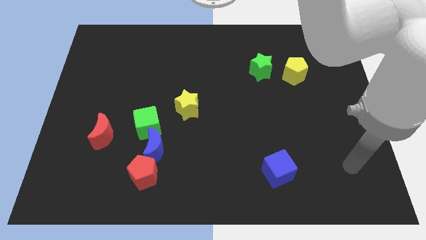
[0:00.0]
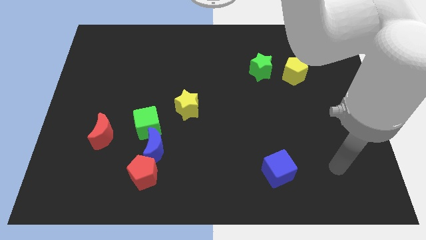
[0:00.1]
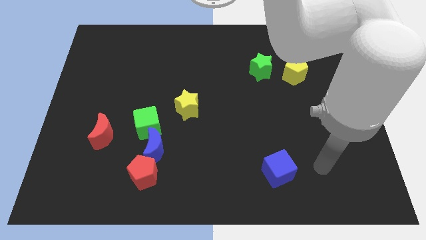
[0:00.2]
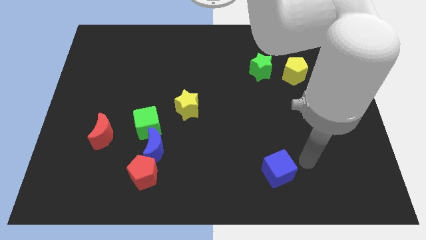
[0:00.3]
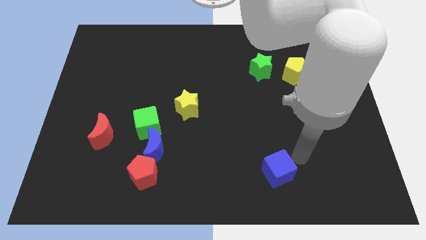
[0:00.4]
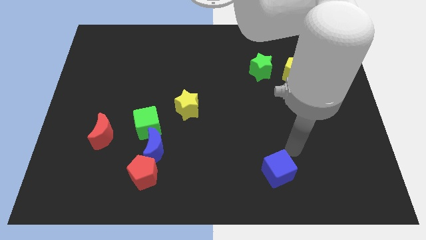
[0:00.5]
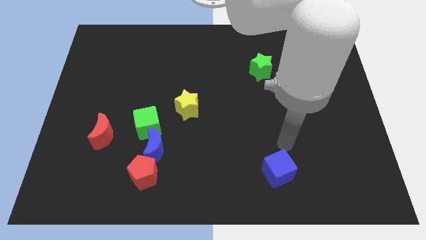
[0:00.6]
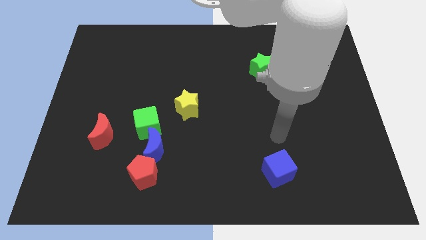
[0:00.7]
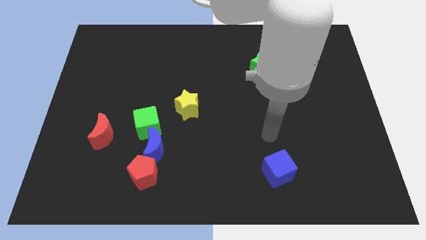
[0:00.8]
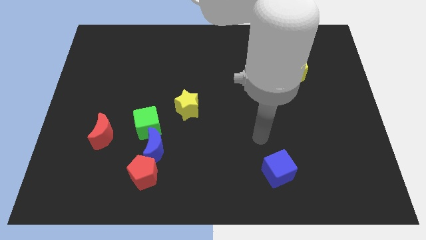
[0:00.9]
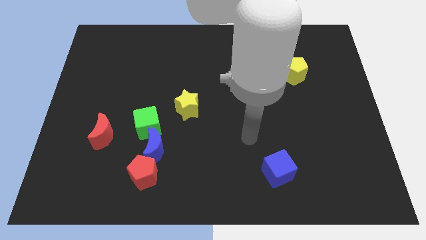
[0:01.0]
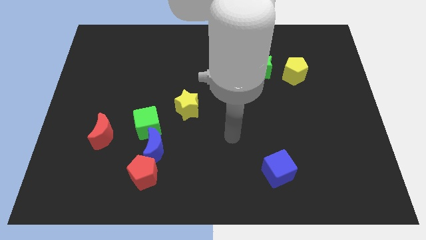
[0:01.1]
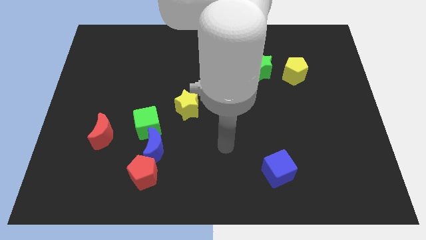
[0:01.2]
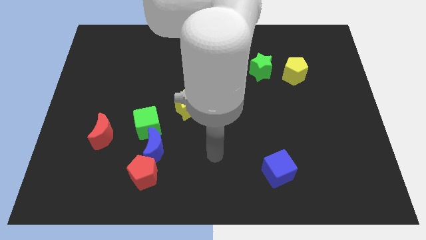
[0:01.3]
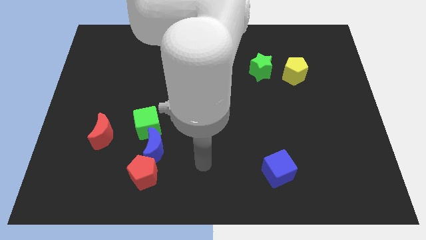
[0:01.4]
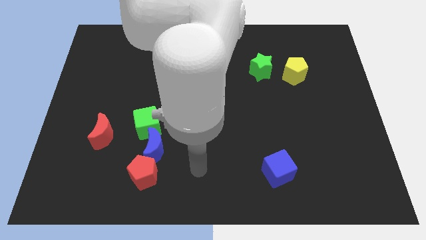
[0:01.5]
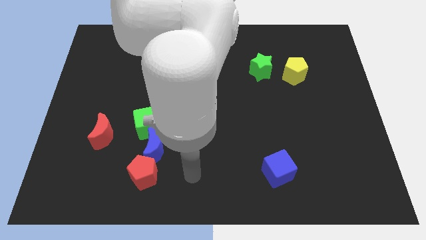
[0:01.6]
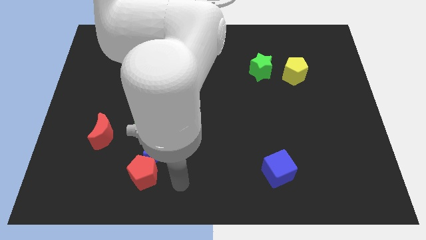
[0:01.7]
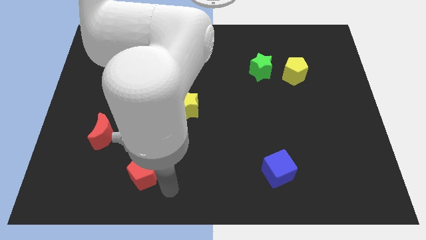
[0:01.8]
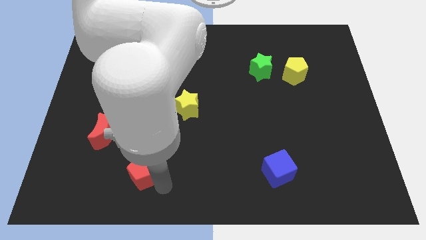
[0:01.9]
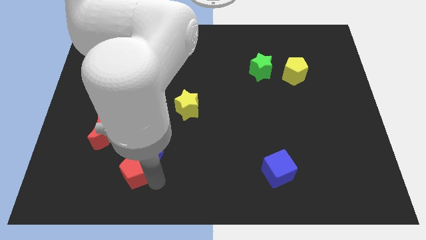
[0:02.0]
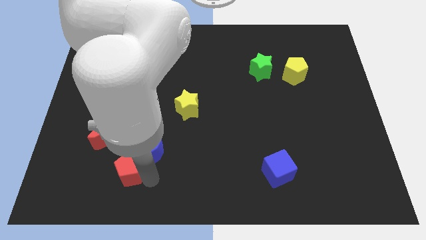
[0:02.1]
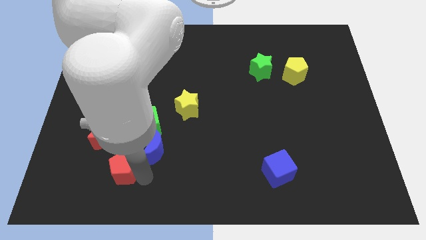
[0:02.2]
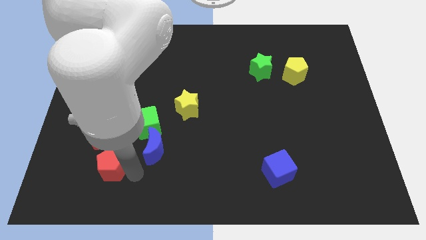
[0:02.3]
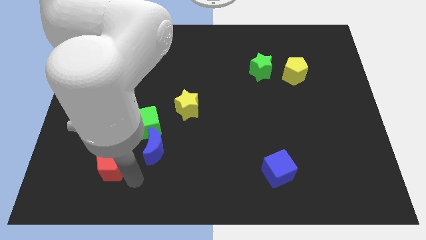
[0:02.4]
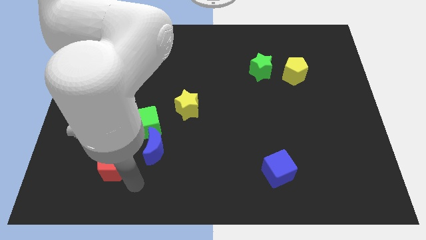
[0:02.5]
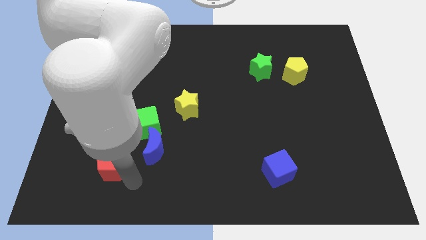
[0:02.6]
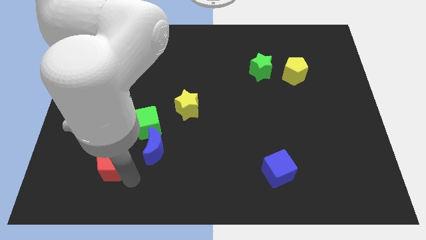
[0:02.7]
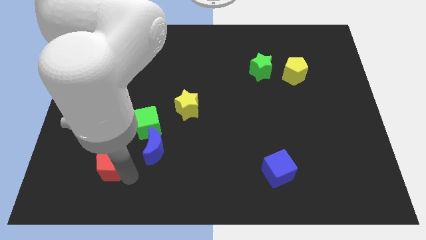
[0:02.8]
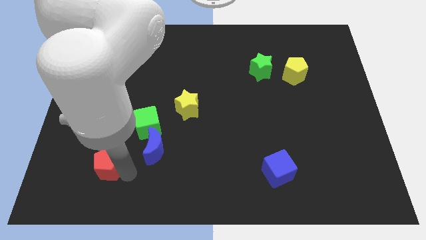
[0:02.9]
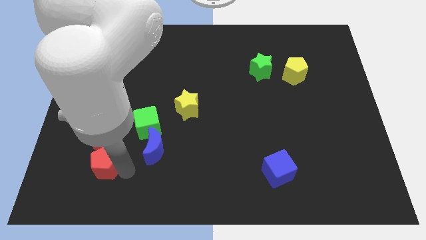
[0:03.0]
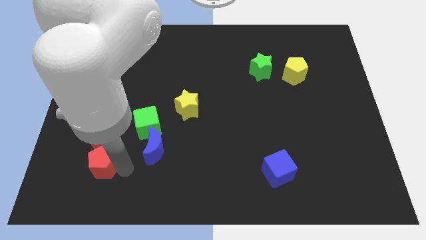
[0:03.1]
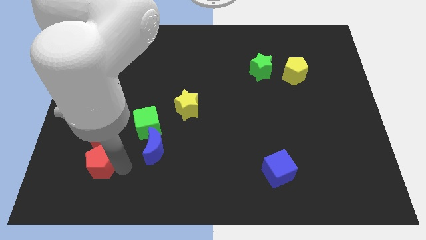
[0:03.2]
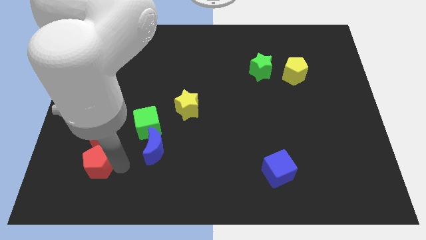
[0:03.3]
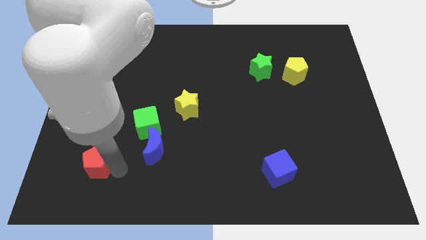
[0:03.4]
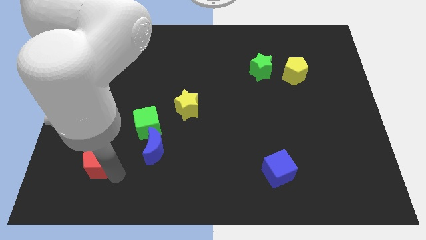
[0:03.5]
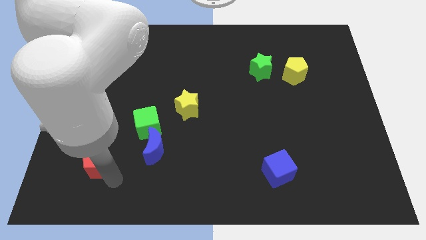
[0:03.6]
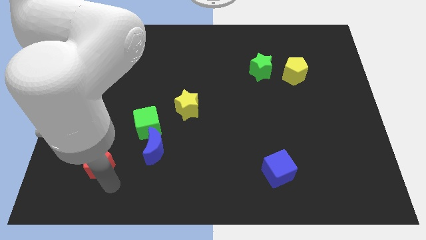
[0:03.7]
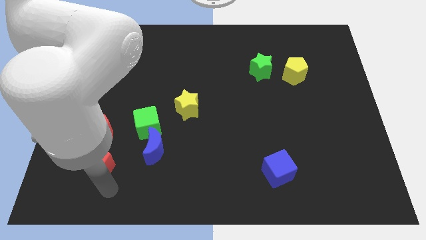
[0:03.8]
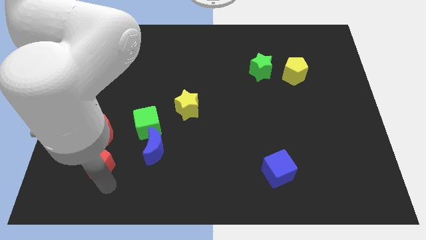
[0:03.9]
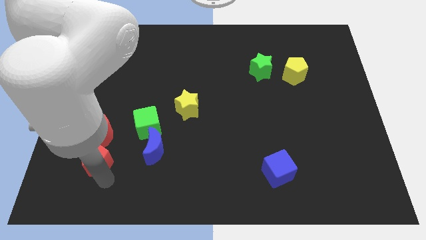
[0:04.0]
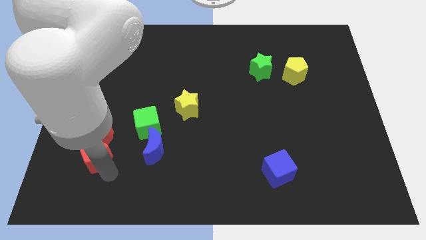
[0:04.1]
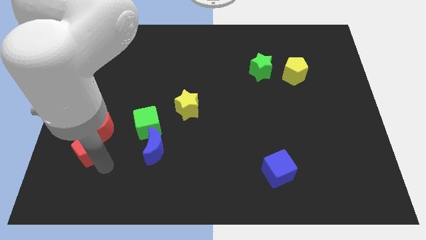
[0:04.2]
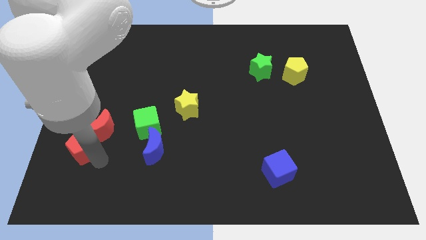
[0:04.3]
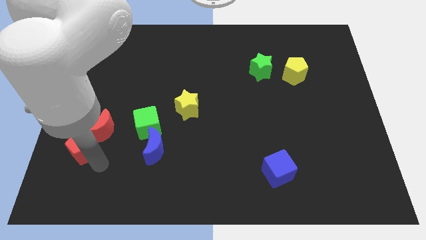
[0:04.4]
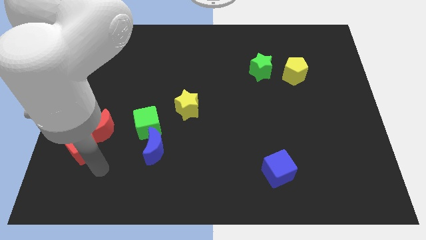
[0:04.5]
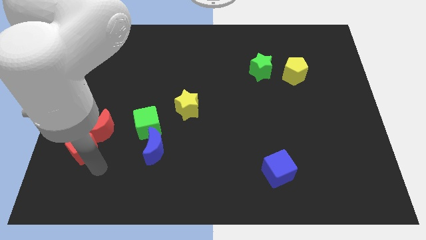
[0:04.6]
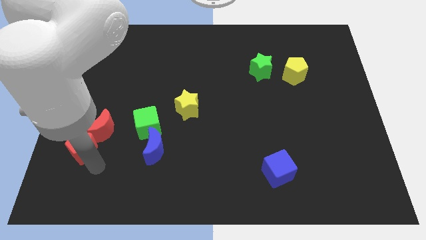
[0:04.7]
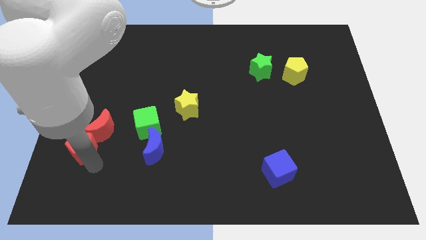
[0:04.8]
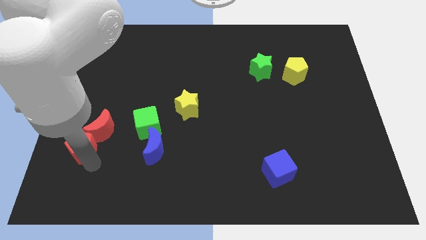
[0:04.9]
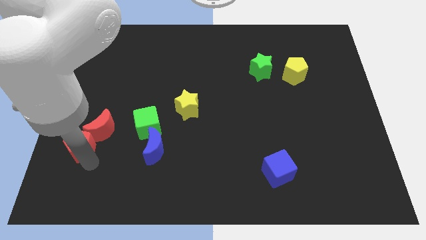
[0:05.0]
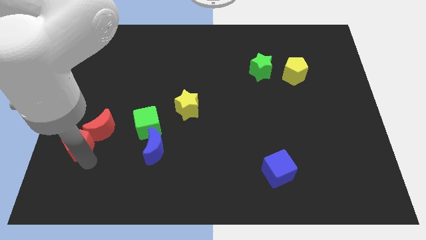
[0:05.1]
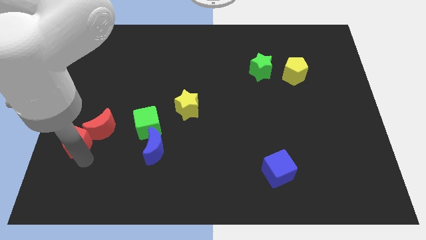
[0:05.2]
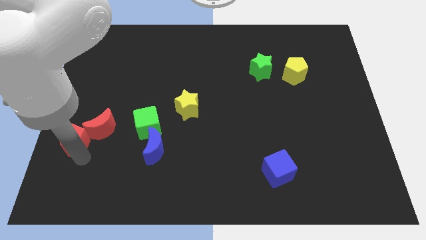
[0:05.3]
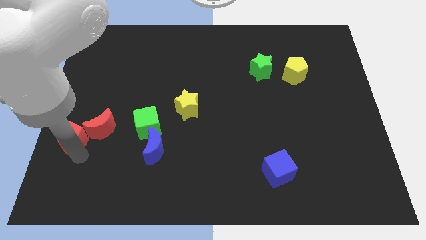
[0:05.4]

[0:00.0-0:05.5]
put the red pentagon to the center left
